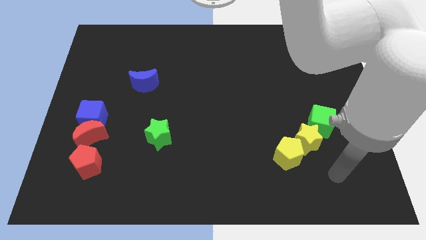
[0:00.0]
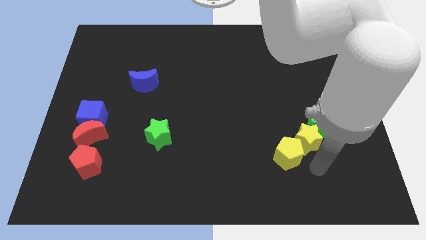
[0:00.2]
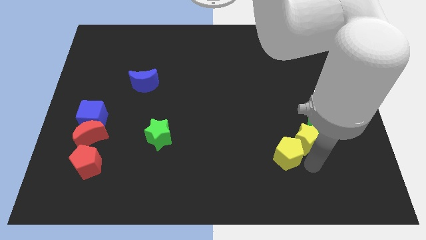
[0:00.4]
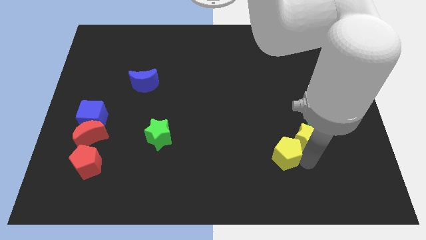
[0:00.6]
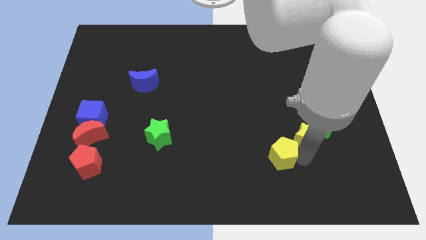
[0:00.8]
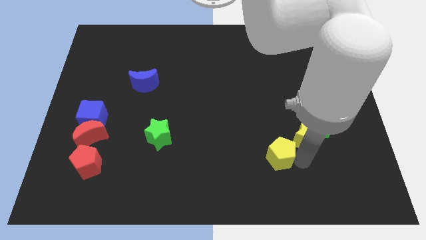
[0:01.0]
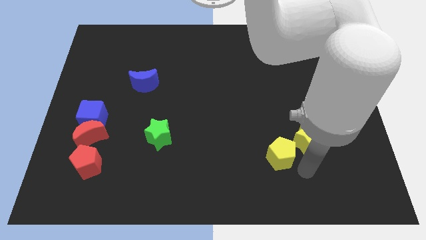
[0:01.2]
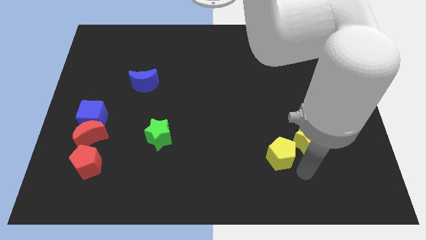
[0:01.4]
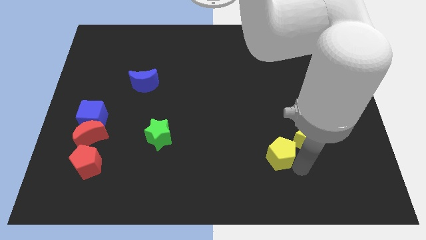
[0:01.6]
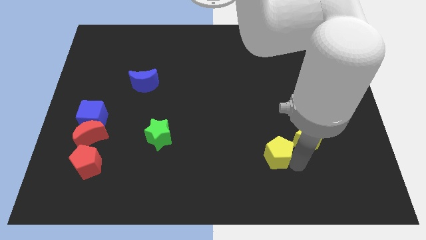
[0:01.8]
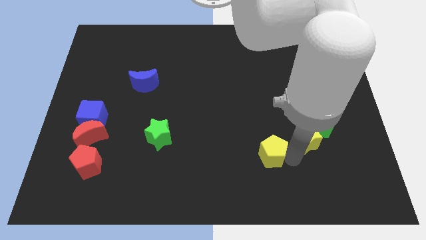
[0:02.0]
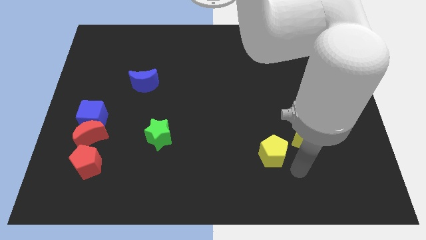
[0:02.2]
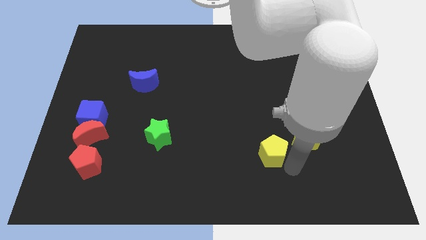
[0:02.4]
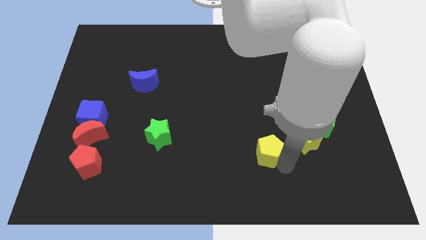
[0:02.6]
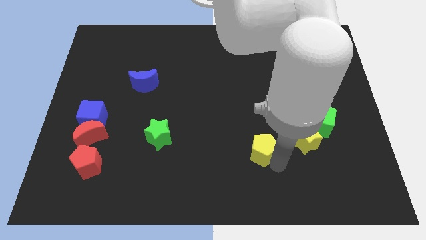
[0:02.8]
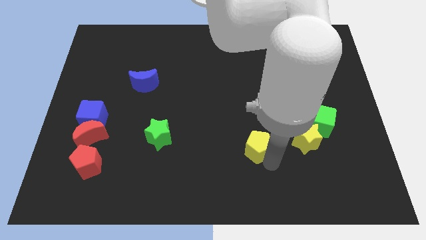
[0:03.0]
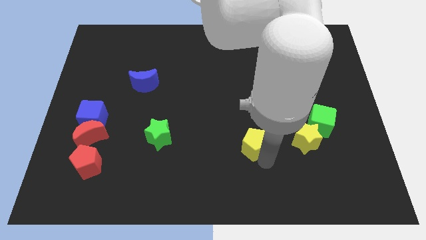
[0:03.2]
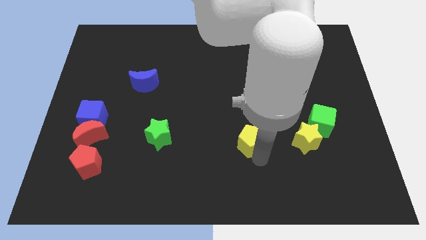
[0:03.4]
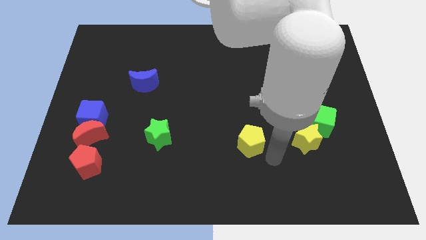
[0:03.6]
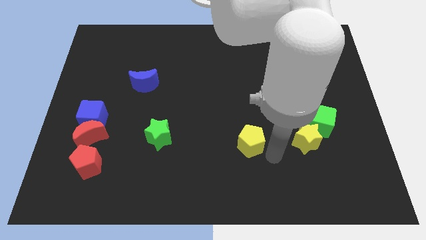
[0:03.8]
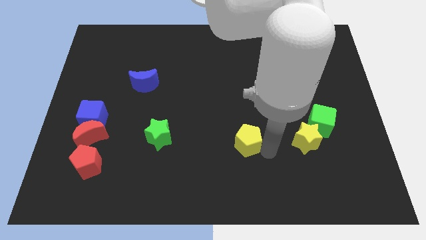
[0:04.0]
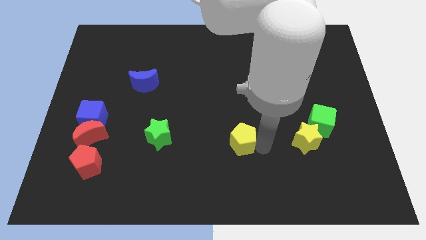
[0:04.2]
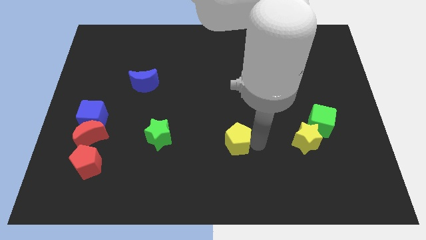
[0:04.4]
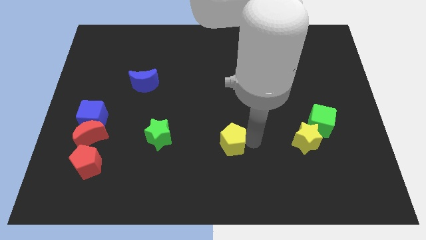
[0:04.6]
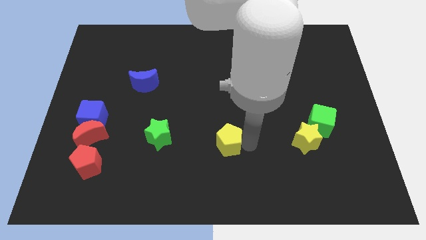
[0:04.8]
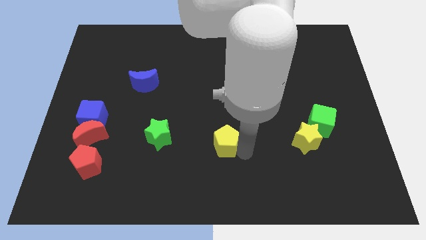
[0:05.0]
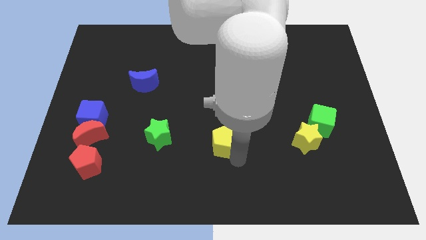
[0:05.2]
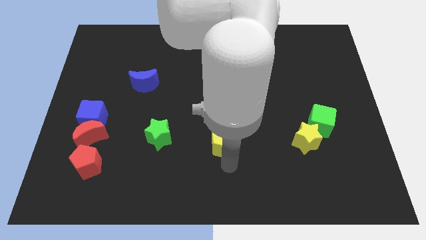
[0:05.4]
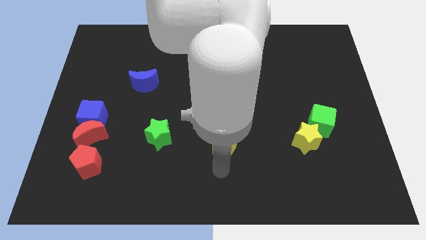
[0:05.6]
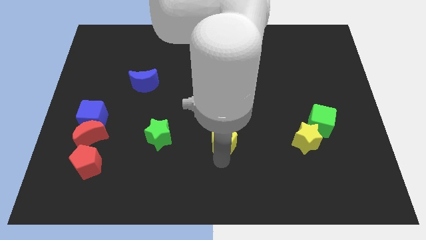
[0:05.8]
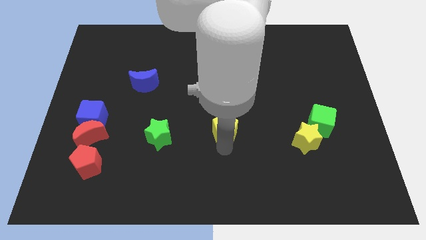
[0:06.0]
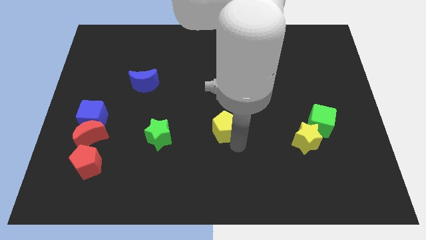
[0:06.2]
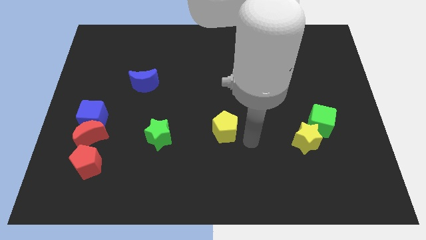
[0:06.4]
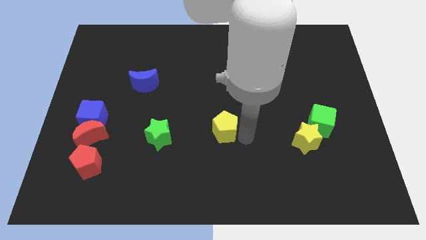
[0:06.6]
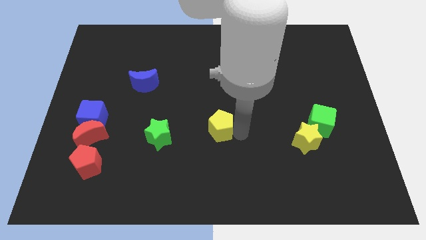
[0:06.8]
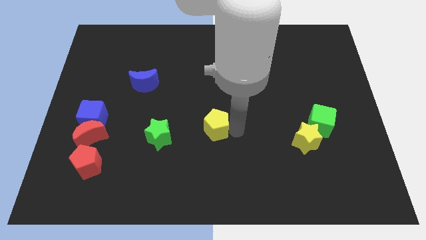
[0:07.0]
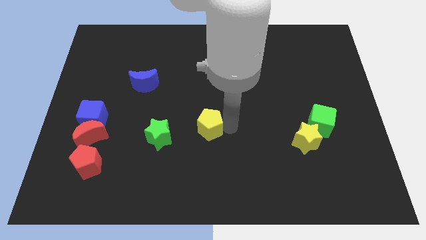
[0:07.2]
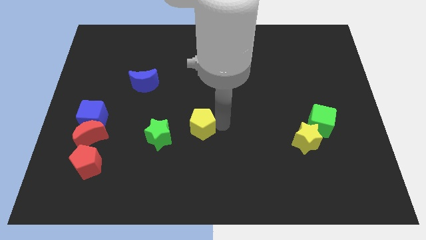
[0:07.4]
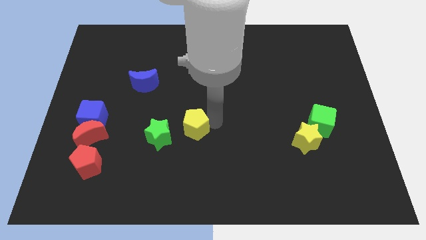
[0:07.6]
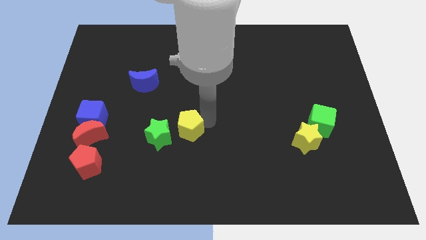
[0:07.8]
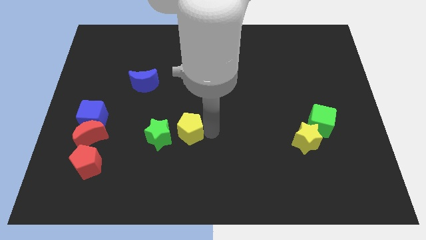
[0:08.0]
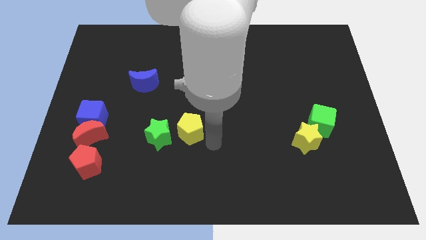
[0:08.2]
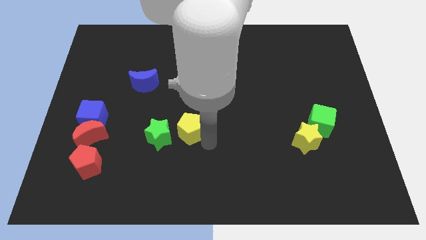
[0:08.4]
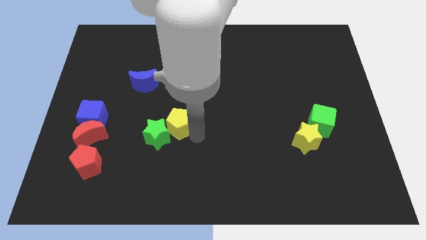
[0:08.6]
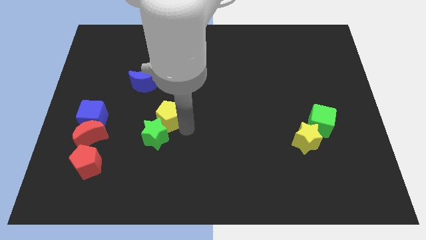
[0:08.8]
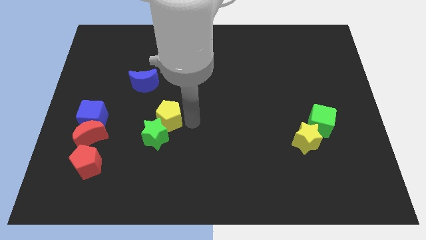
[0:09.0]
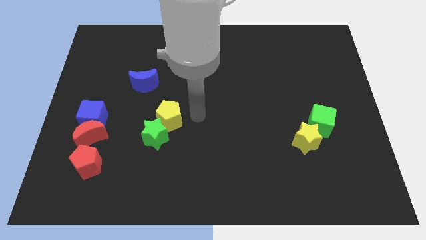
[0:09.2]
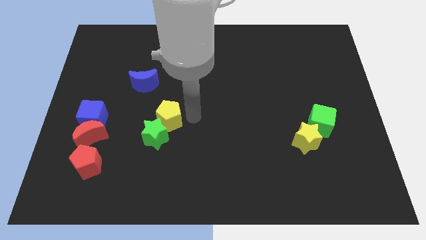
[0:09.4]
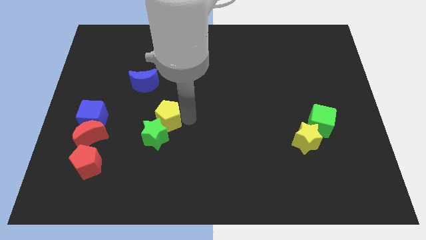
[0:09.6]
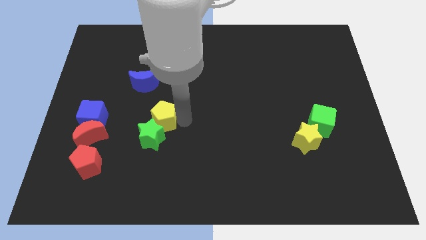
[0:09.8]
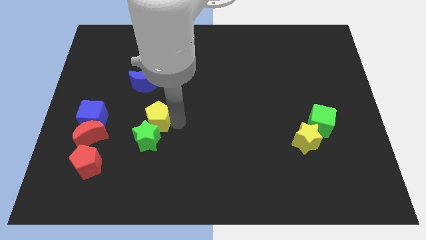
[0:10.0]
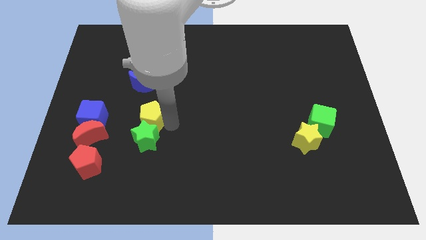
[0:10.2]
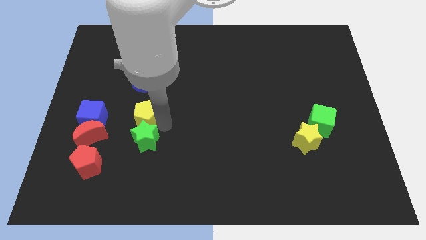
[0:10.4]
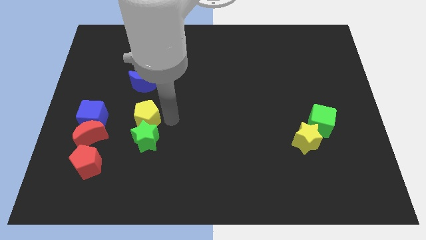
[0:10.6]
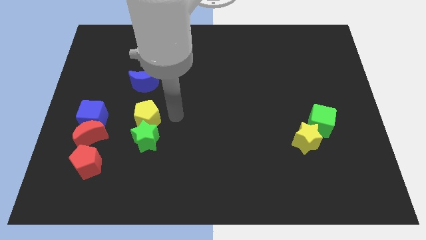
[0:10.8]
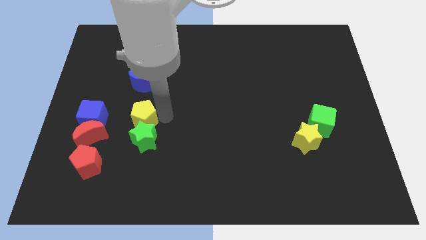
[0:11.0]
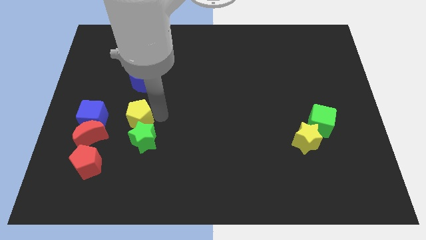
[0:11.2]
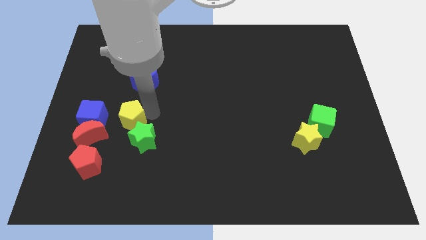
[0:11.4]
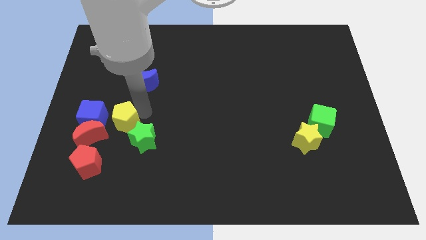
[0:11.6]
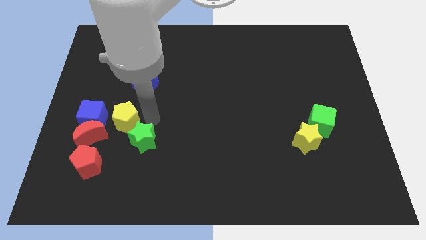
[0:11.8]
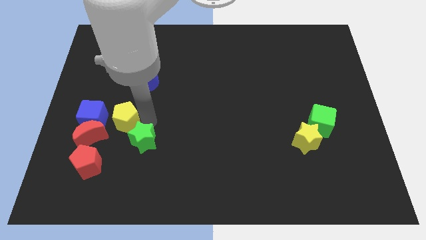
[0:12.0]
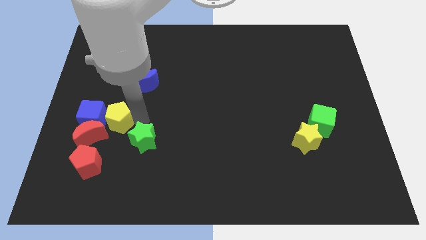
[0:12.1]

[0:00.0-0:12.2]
put the yellow pentagon next to the blue cube

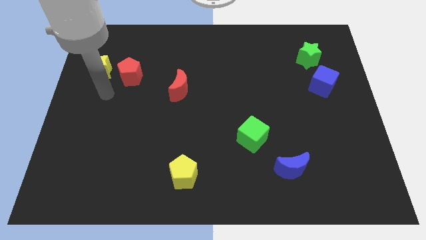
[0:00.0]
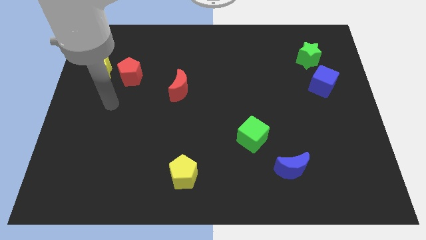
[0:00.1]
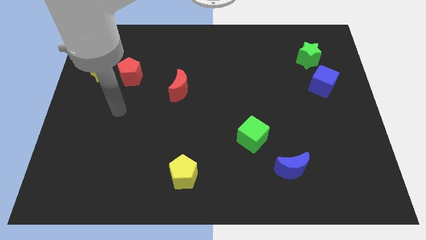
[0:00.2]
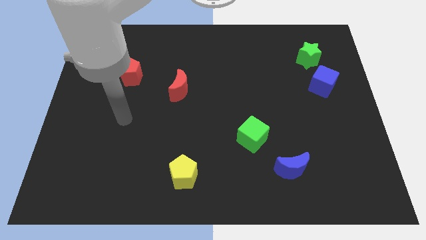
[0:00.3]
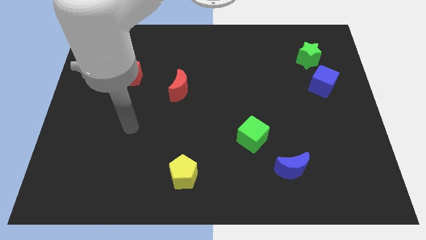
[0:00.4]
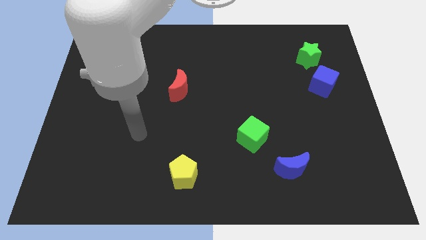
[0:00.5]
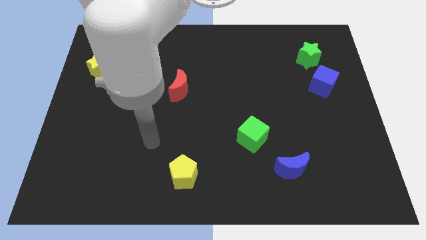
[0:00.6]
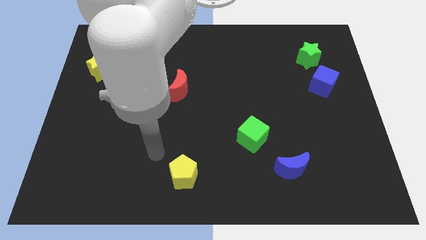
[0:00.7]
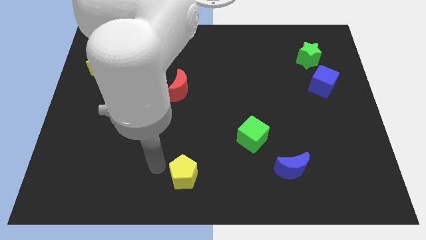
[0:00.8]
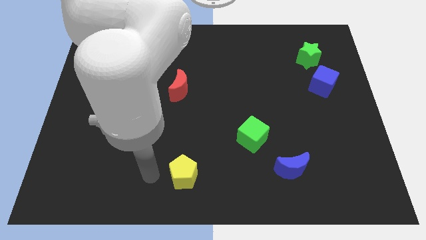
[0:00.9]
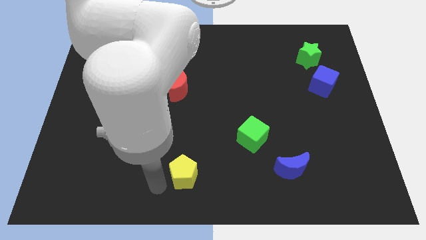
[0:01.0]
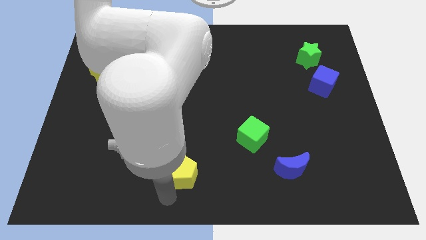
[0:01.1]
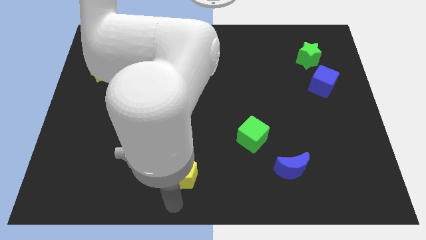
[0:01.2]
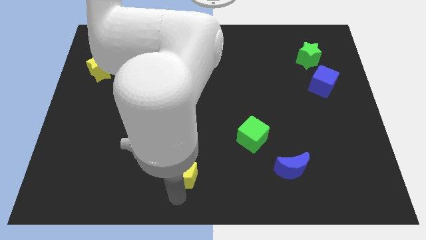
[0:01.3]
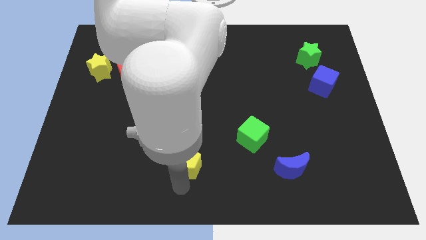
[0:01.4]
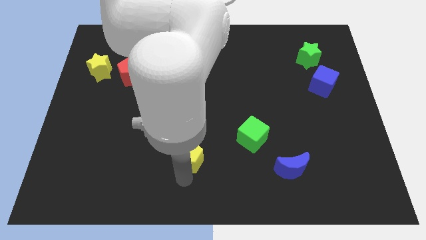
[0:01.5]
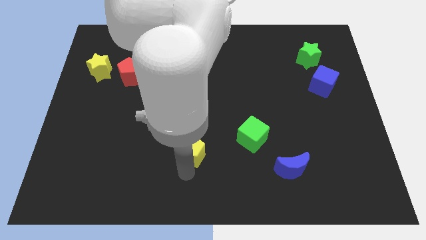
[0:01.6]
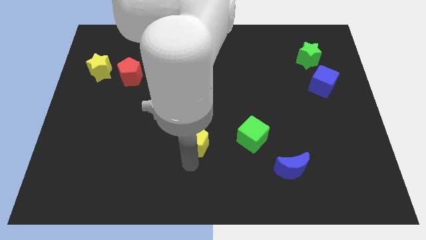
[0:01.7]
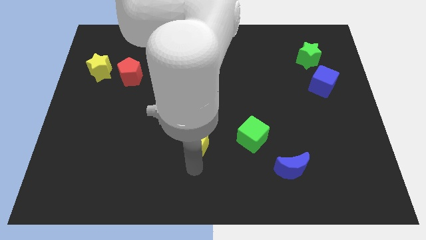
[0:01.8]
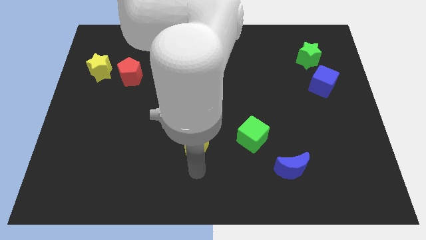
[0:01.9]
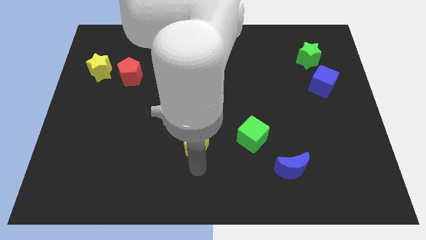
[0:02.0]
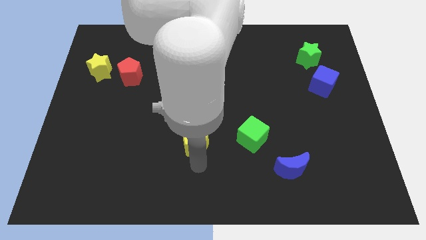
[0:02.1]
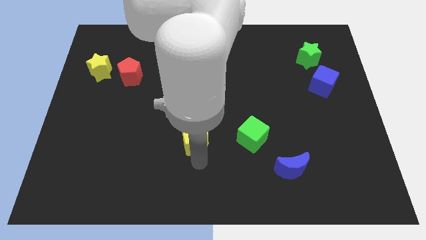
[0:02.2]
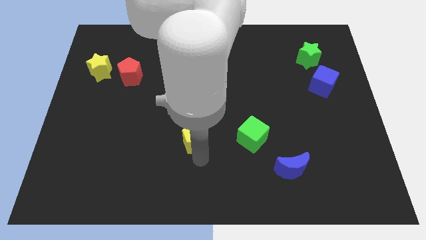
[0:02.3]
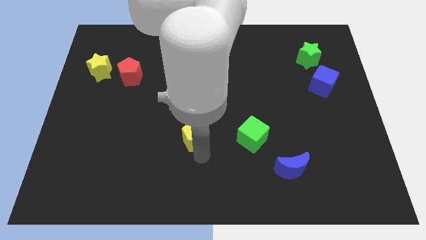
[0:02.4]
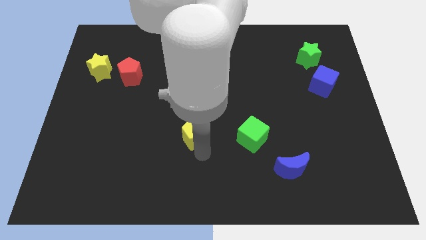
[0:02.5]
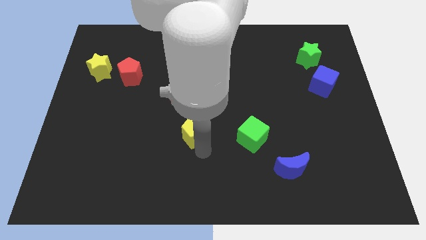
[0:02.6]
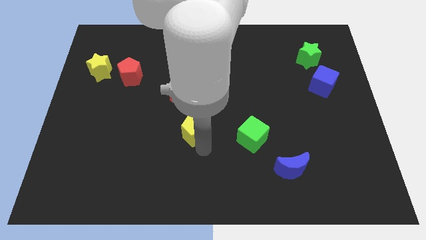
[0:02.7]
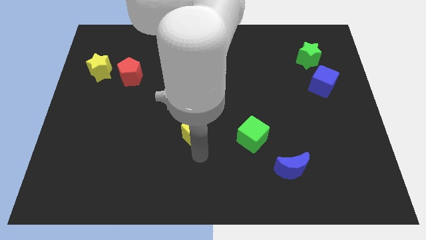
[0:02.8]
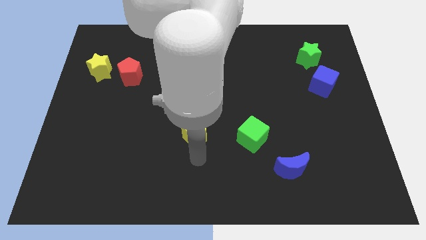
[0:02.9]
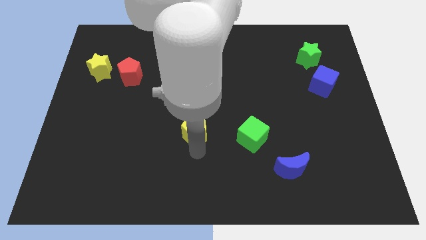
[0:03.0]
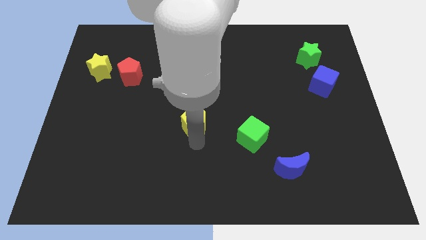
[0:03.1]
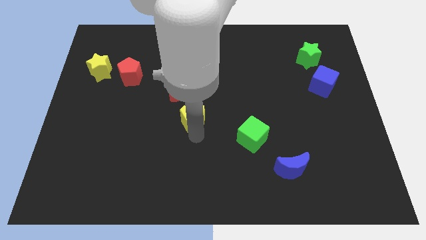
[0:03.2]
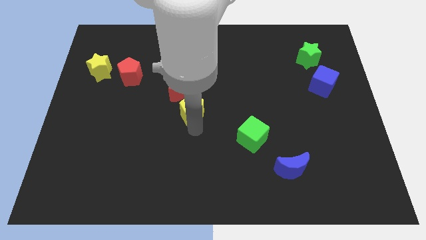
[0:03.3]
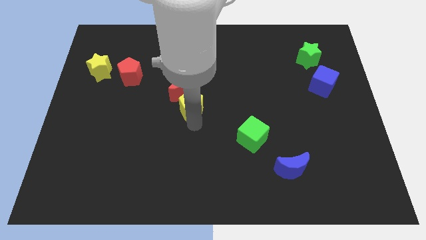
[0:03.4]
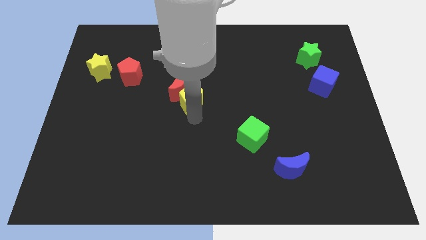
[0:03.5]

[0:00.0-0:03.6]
push the yellow pentagon next to the red moon
